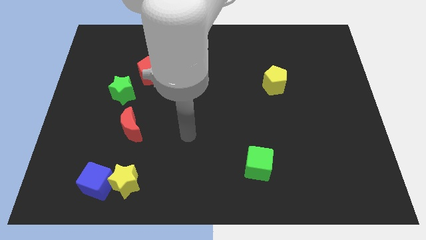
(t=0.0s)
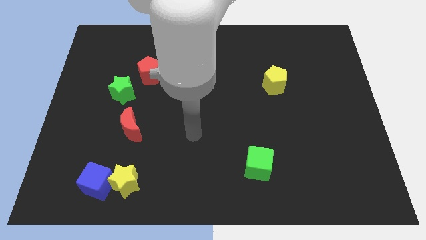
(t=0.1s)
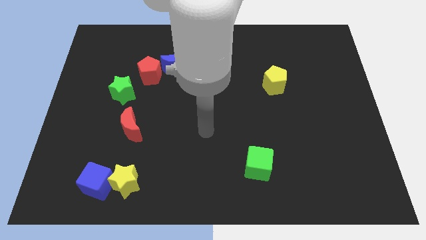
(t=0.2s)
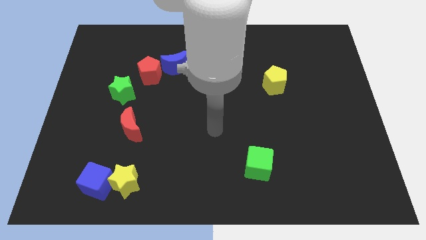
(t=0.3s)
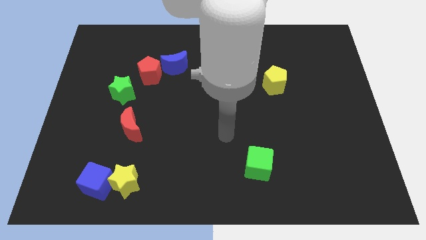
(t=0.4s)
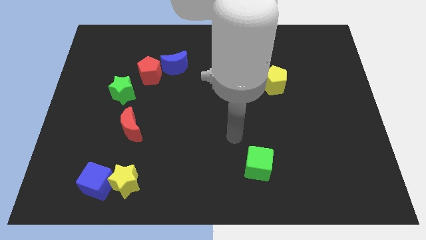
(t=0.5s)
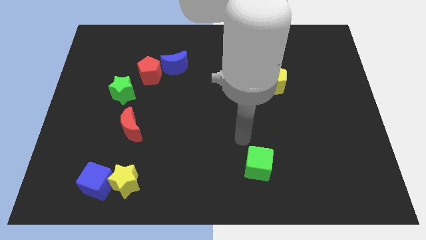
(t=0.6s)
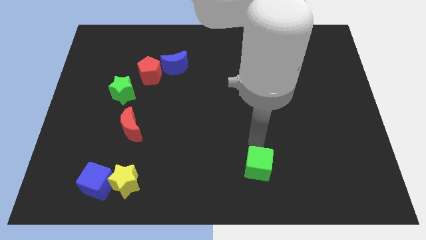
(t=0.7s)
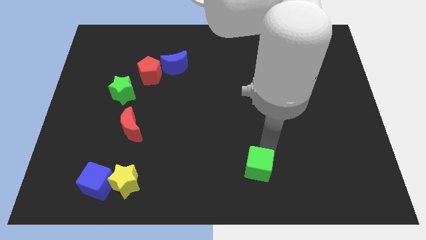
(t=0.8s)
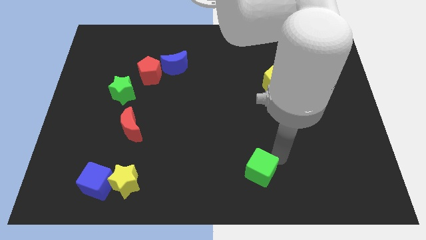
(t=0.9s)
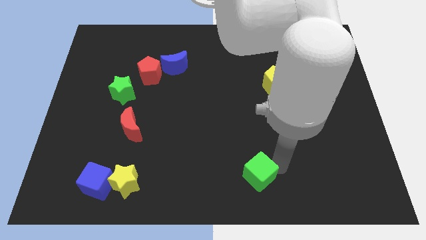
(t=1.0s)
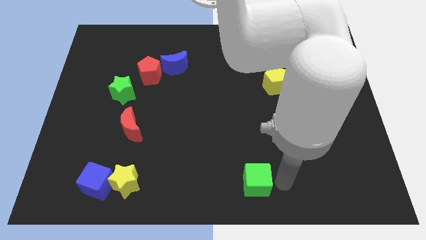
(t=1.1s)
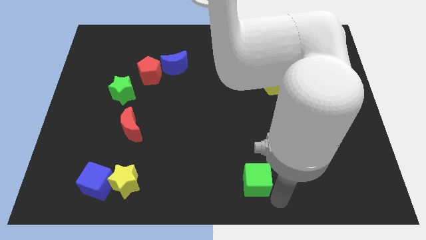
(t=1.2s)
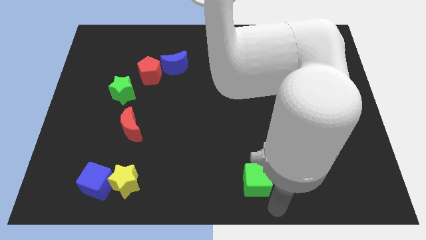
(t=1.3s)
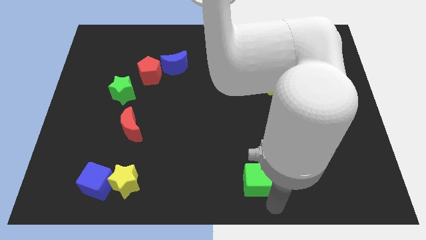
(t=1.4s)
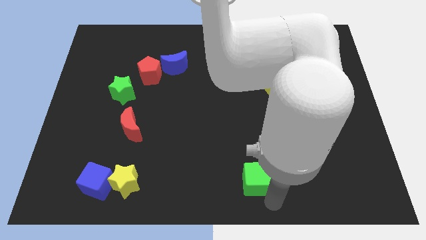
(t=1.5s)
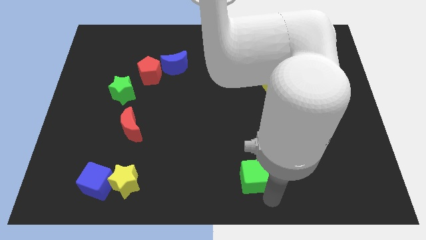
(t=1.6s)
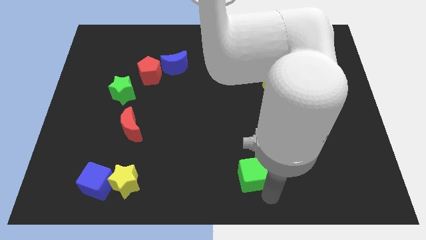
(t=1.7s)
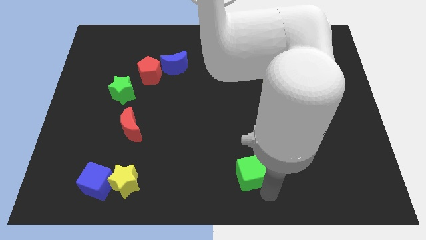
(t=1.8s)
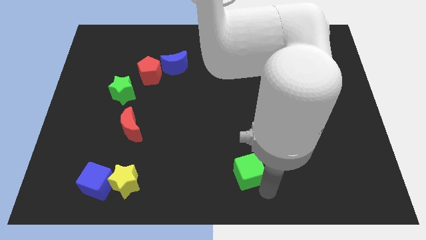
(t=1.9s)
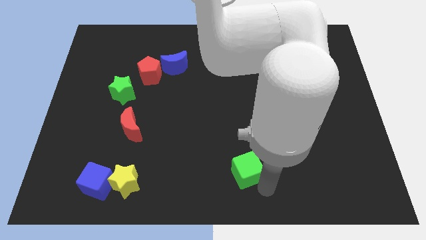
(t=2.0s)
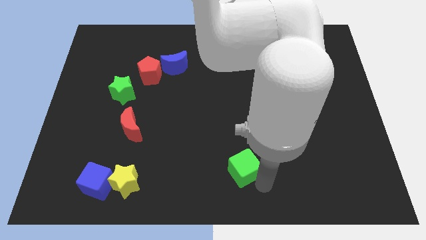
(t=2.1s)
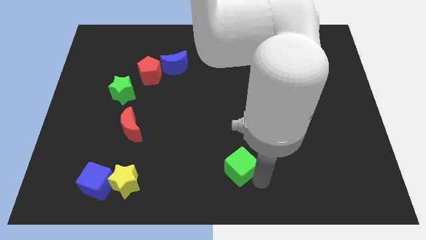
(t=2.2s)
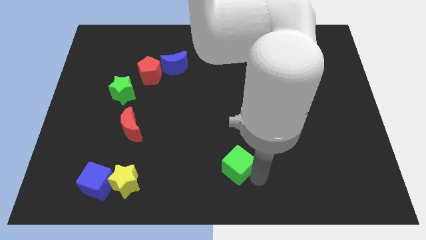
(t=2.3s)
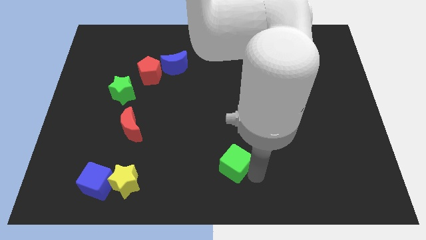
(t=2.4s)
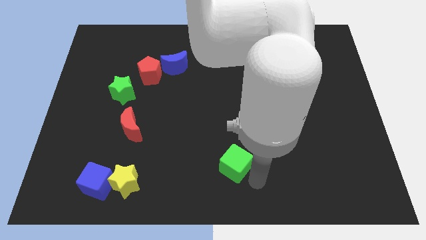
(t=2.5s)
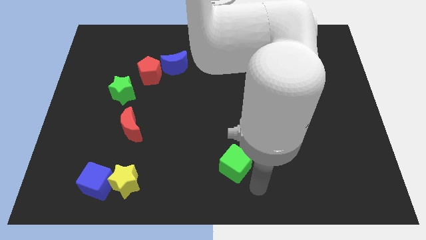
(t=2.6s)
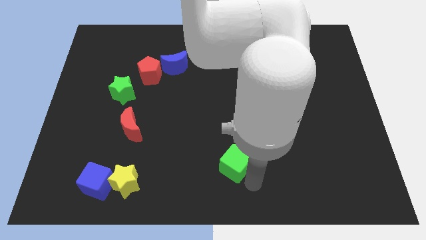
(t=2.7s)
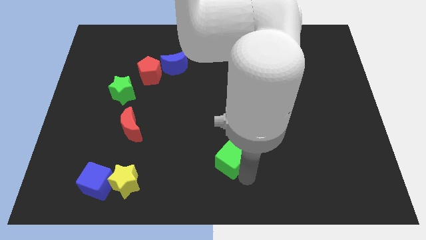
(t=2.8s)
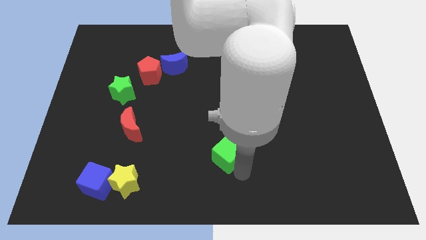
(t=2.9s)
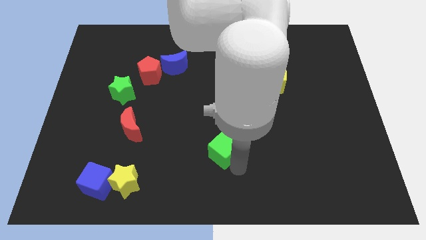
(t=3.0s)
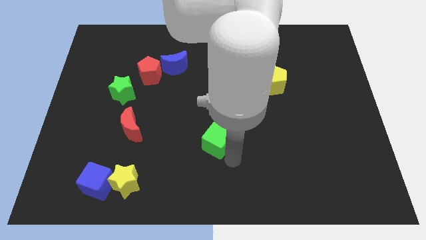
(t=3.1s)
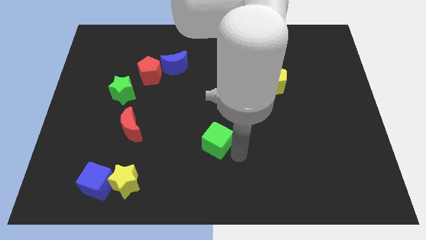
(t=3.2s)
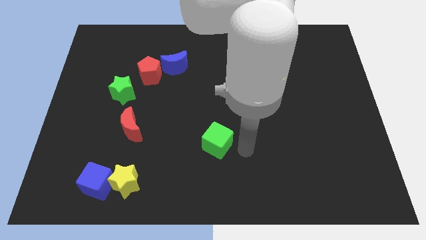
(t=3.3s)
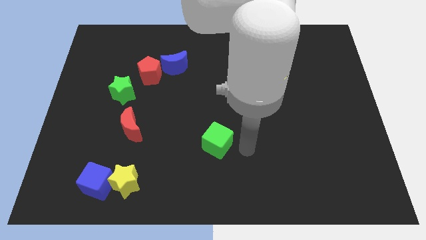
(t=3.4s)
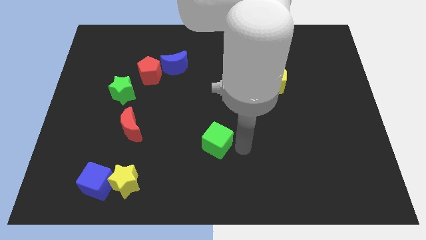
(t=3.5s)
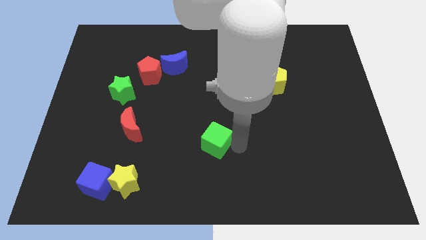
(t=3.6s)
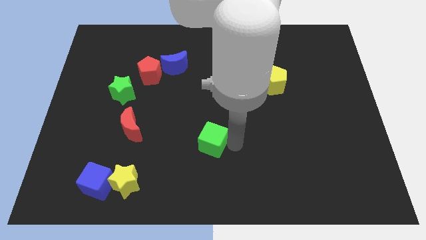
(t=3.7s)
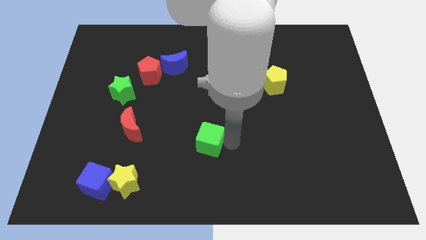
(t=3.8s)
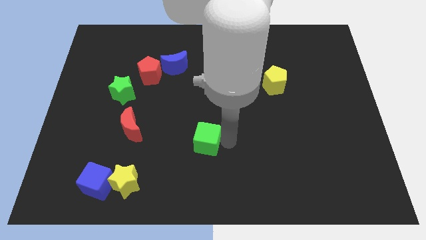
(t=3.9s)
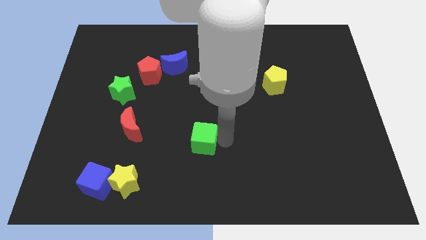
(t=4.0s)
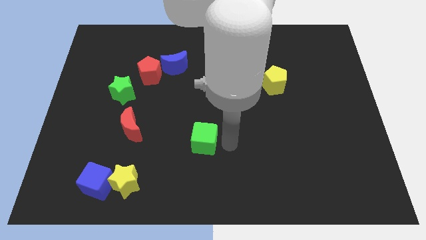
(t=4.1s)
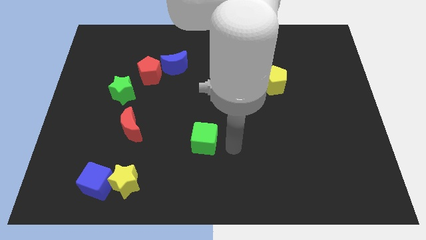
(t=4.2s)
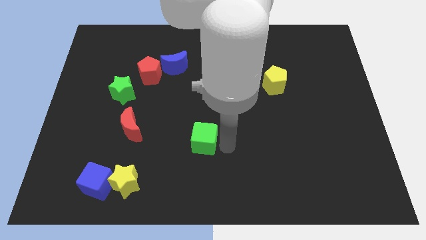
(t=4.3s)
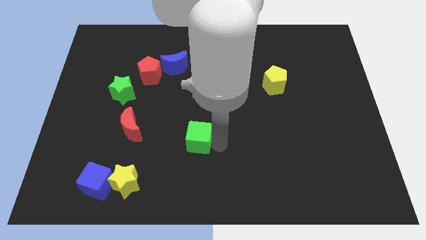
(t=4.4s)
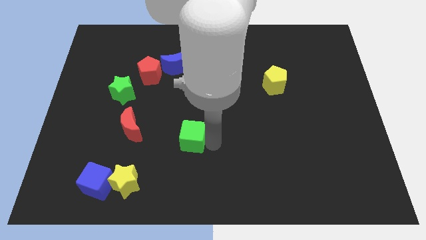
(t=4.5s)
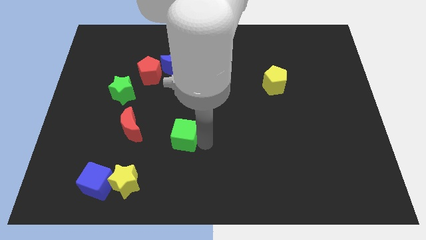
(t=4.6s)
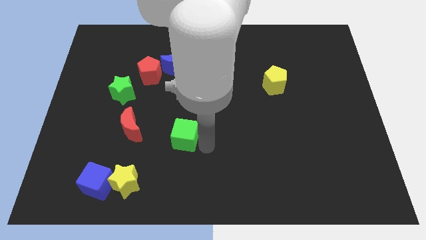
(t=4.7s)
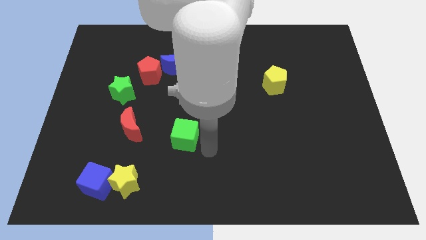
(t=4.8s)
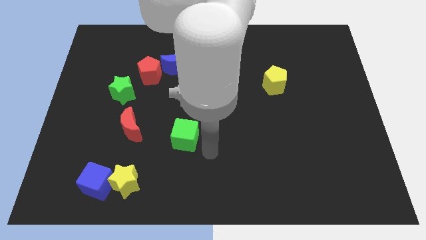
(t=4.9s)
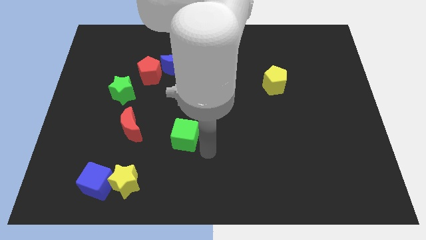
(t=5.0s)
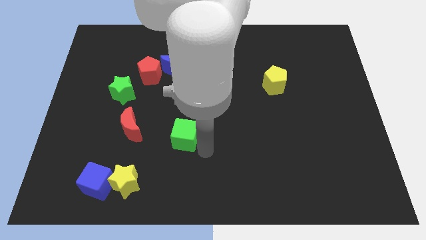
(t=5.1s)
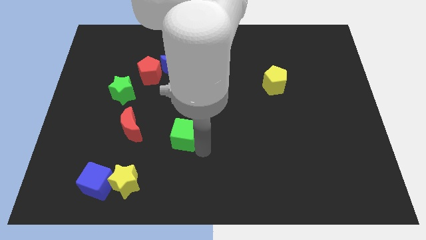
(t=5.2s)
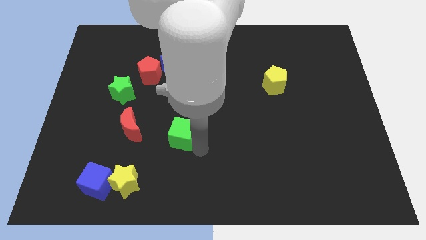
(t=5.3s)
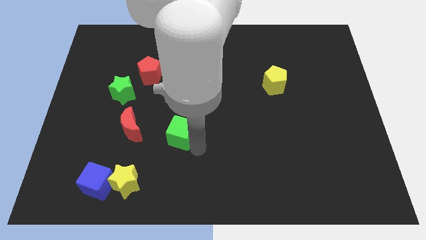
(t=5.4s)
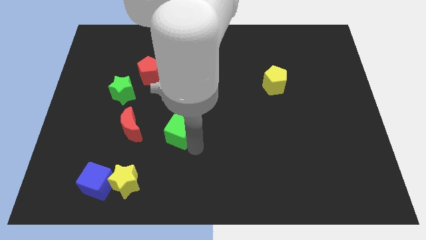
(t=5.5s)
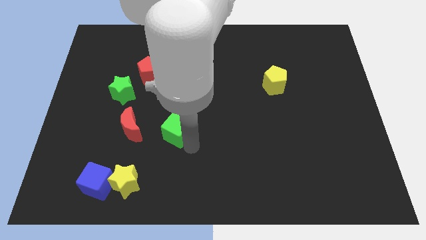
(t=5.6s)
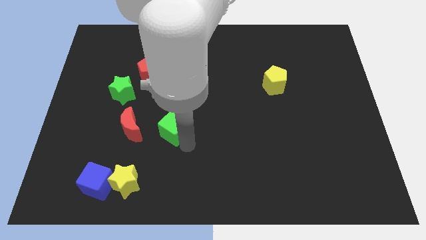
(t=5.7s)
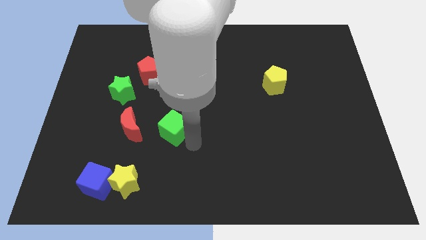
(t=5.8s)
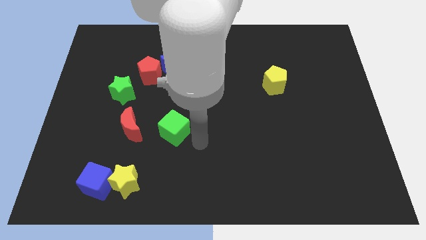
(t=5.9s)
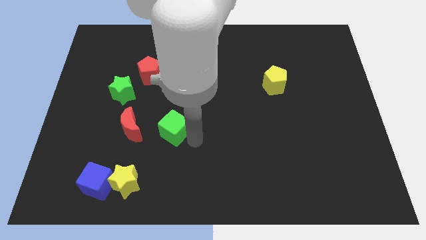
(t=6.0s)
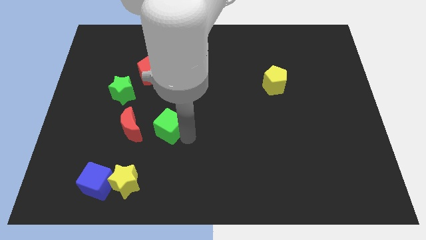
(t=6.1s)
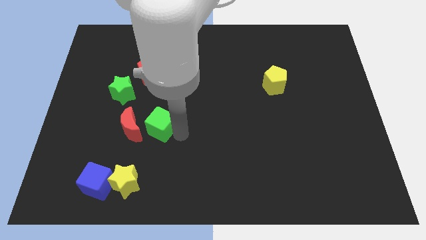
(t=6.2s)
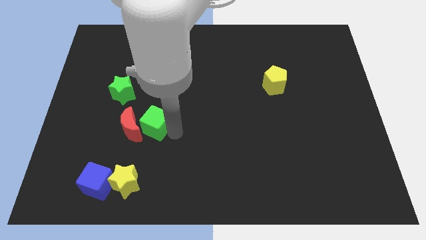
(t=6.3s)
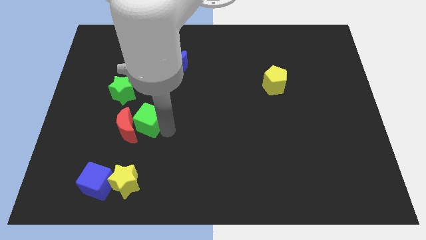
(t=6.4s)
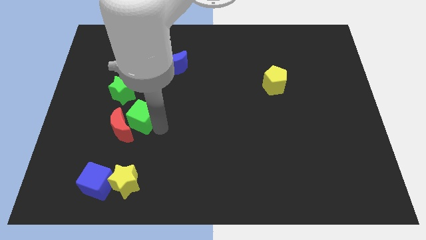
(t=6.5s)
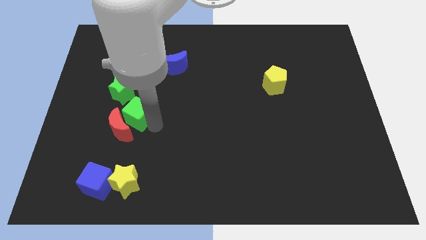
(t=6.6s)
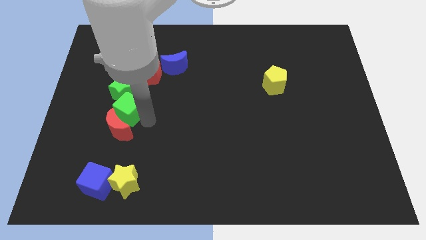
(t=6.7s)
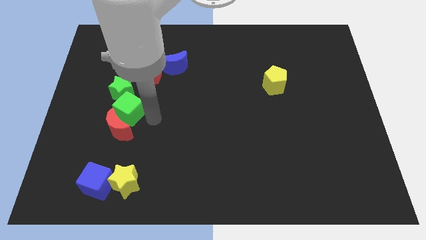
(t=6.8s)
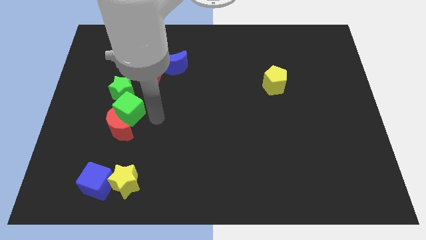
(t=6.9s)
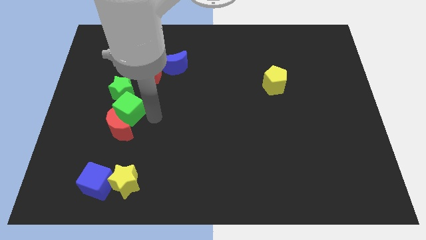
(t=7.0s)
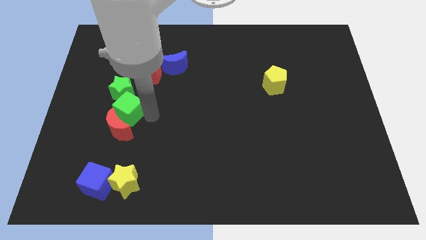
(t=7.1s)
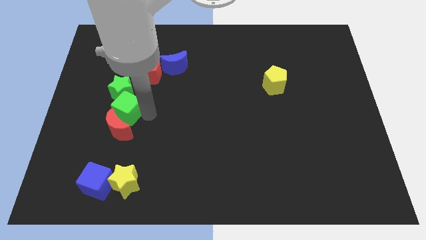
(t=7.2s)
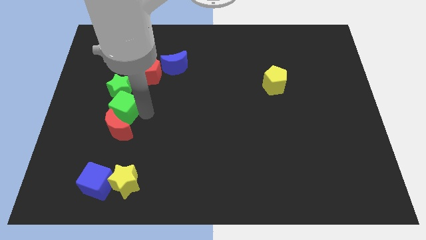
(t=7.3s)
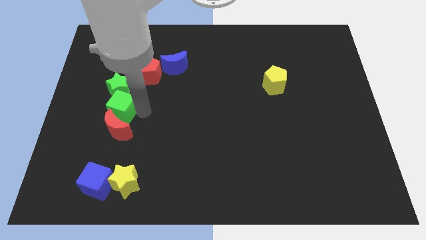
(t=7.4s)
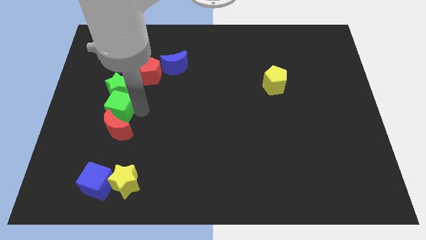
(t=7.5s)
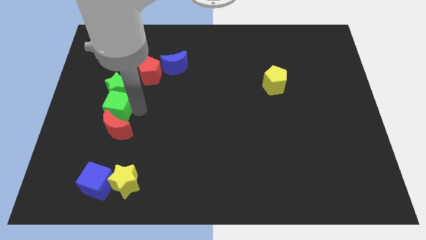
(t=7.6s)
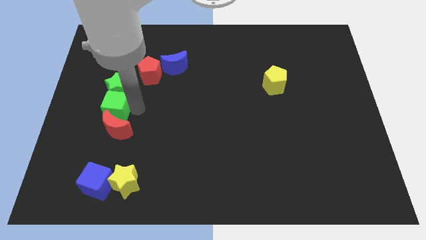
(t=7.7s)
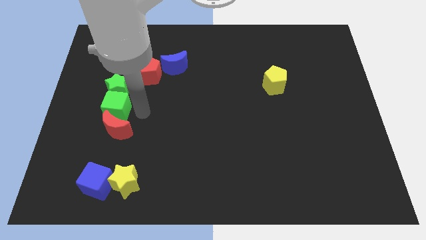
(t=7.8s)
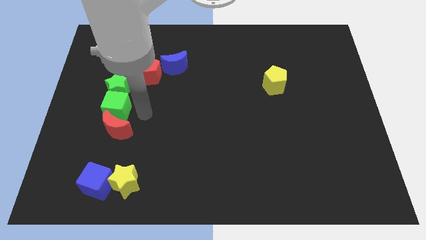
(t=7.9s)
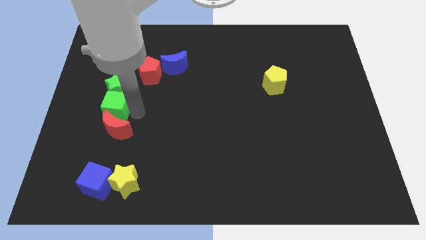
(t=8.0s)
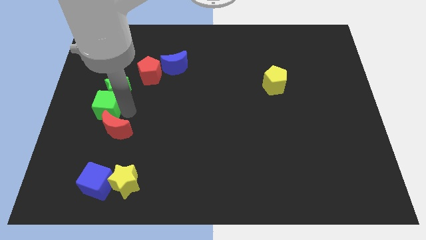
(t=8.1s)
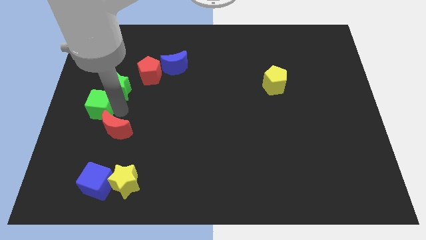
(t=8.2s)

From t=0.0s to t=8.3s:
push the green cube to the center left
